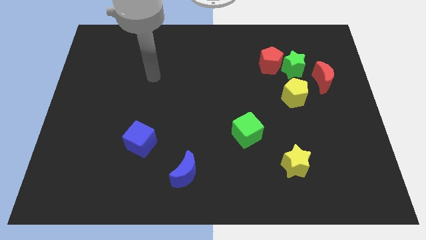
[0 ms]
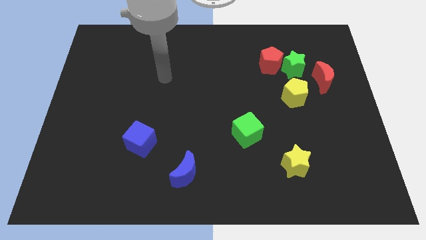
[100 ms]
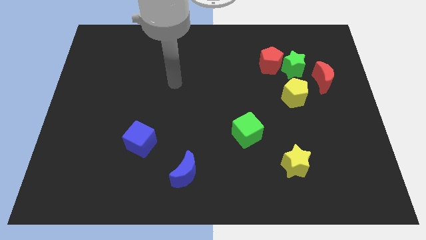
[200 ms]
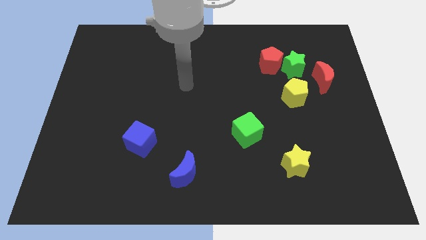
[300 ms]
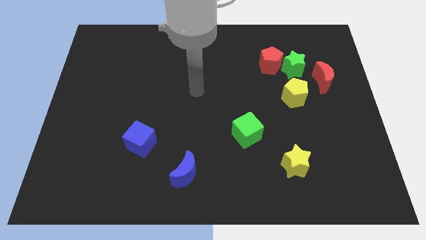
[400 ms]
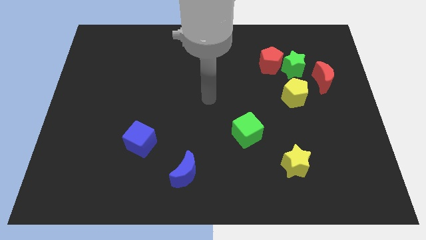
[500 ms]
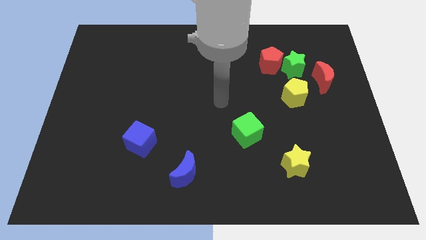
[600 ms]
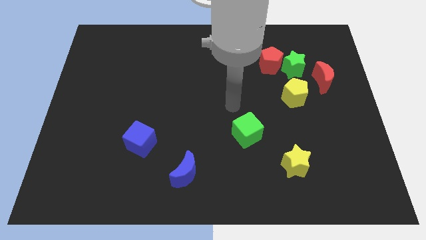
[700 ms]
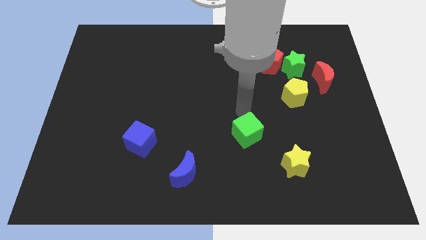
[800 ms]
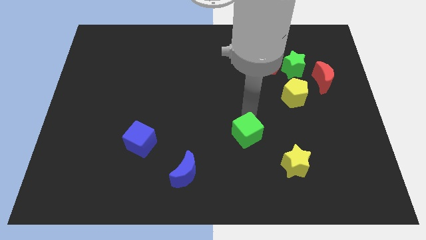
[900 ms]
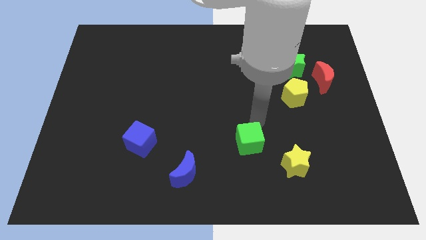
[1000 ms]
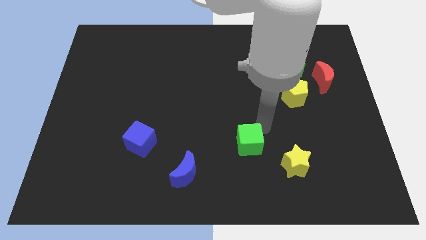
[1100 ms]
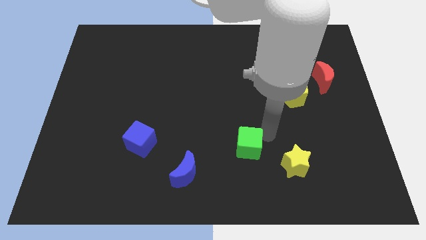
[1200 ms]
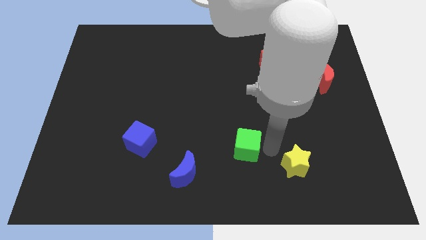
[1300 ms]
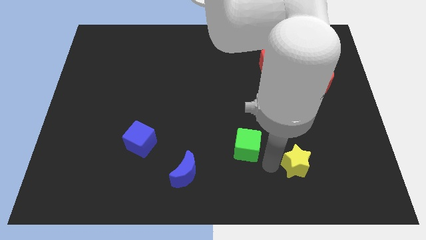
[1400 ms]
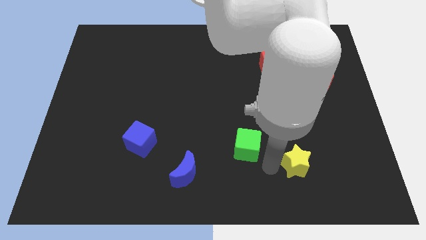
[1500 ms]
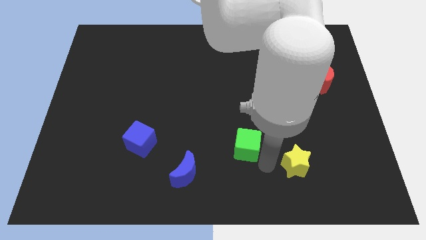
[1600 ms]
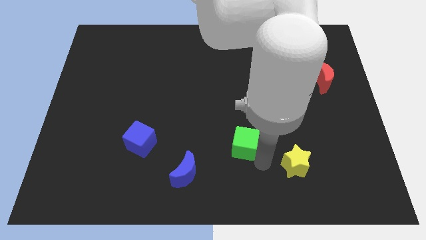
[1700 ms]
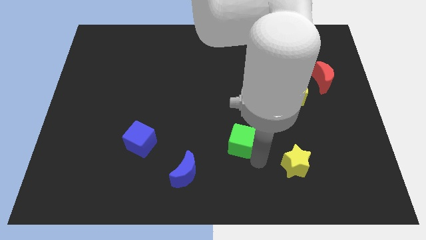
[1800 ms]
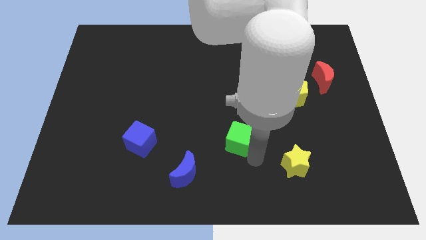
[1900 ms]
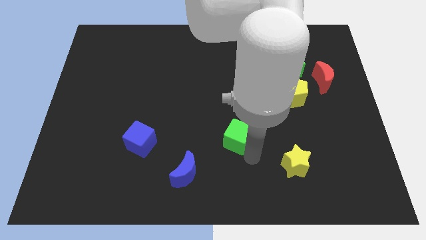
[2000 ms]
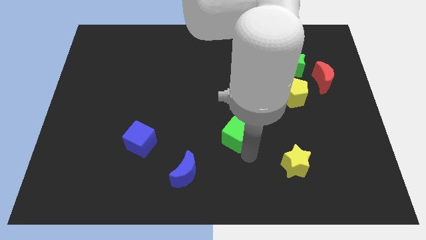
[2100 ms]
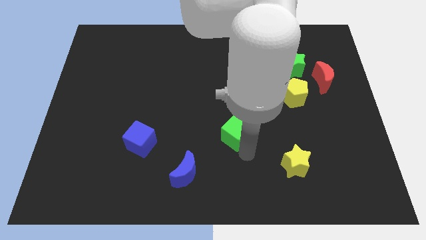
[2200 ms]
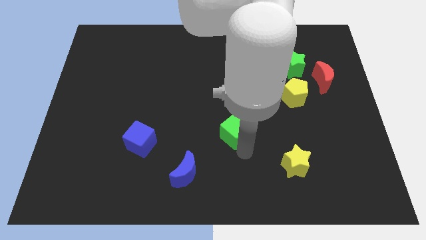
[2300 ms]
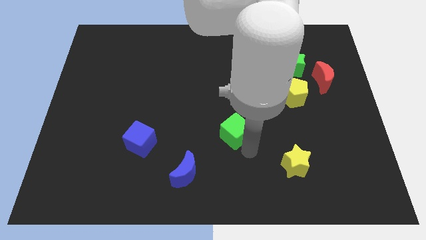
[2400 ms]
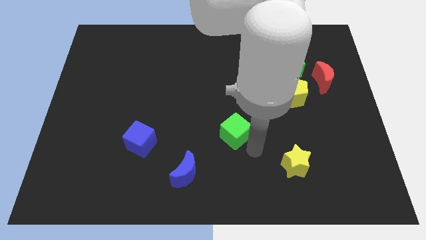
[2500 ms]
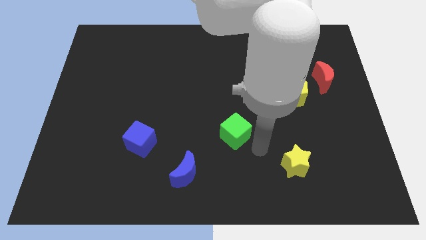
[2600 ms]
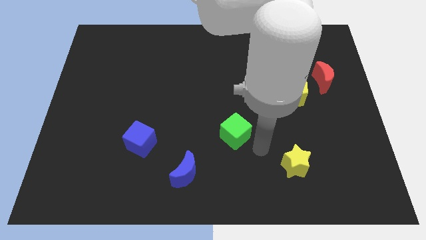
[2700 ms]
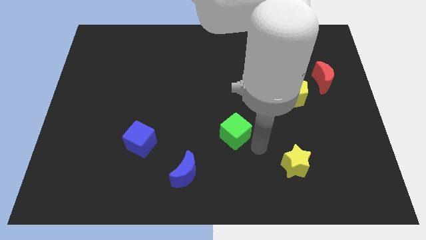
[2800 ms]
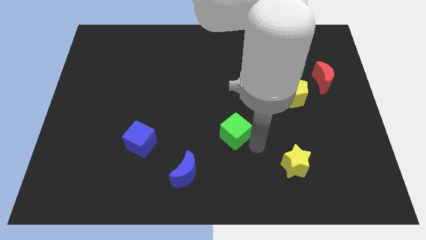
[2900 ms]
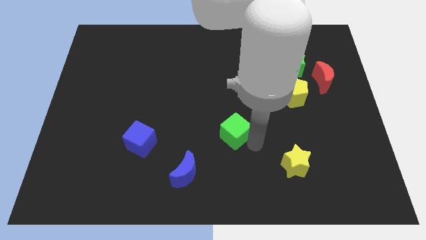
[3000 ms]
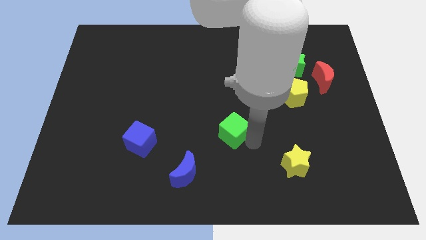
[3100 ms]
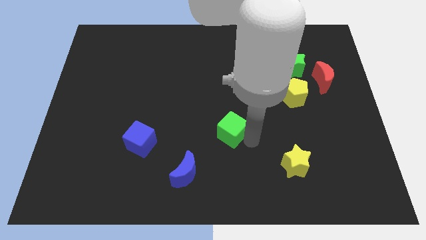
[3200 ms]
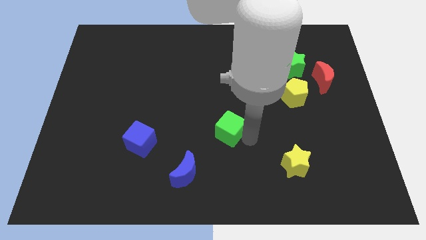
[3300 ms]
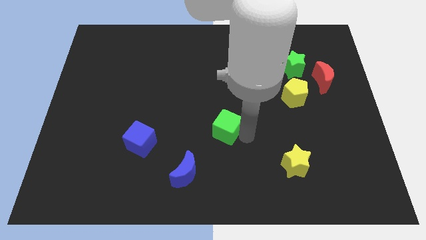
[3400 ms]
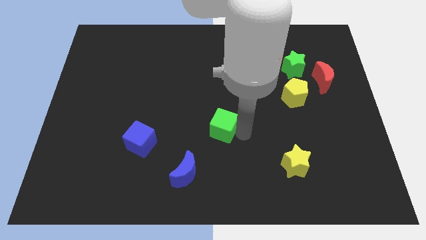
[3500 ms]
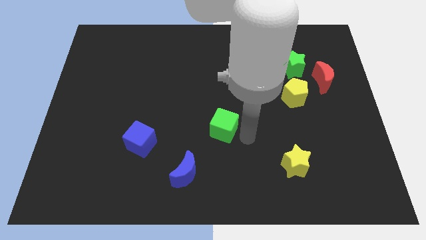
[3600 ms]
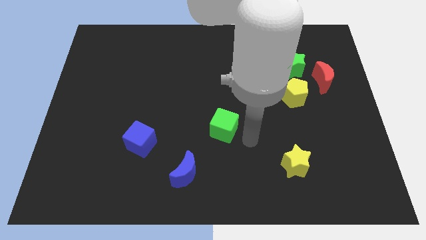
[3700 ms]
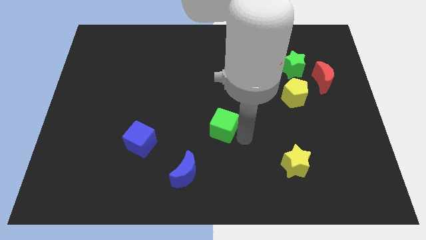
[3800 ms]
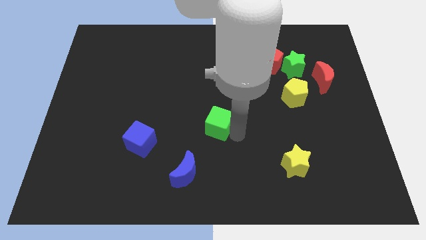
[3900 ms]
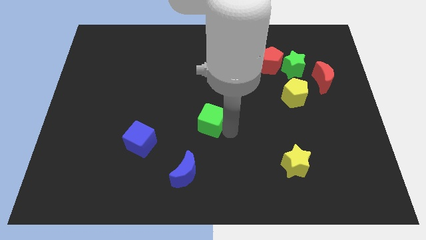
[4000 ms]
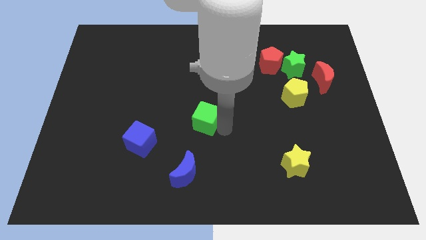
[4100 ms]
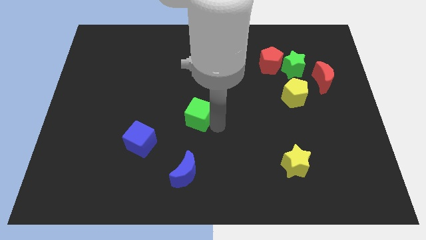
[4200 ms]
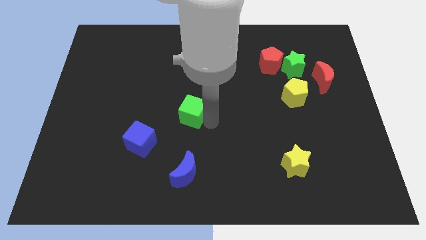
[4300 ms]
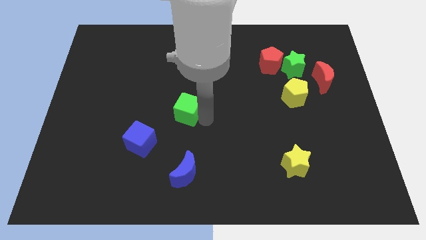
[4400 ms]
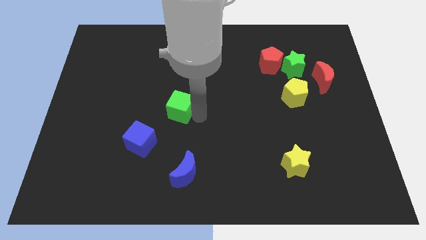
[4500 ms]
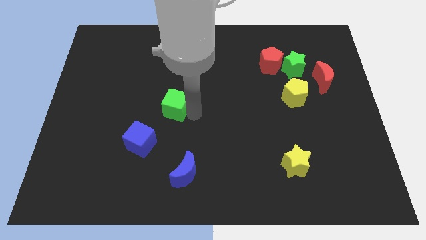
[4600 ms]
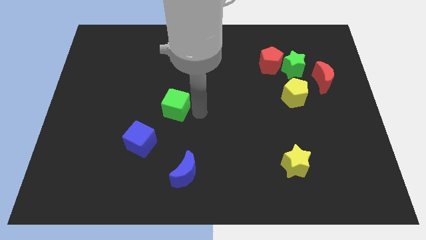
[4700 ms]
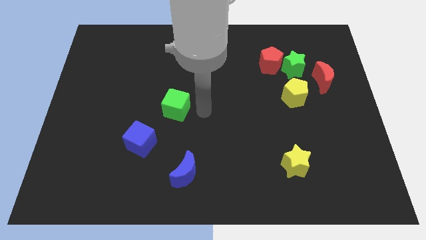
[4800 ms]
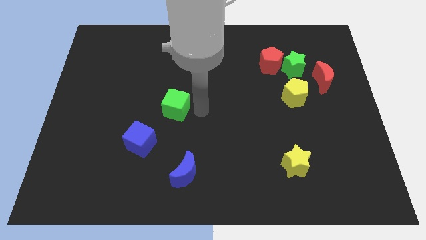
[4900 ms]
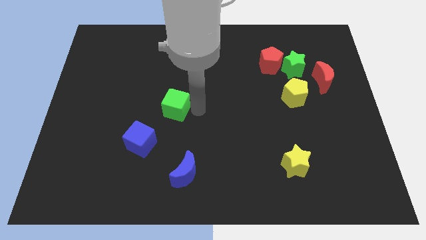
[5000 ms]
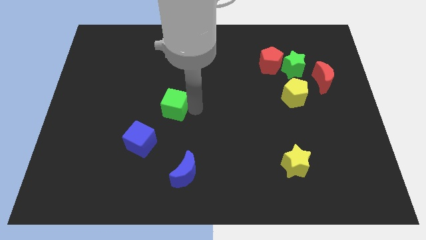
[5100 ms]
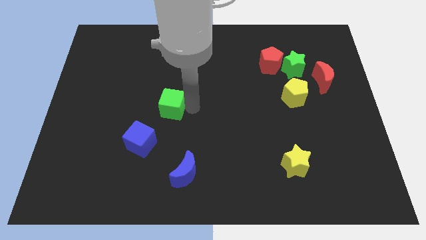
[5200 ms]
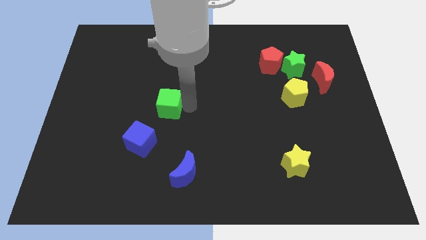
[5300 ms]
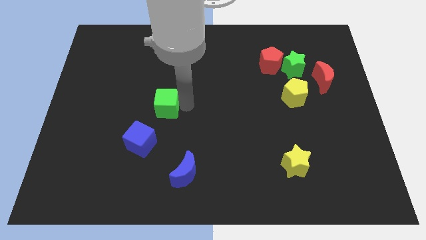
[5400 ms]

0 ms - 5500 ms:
move the green cube to the top side of the blue cube

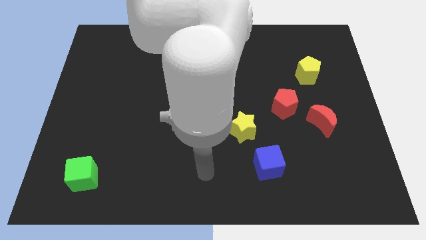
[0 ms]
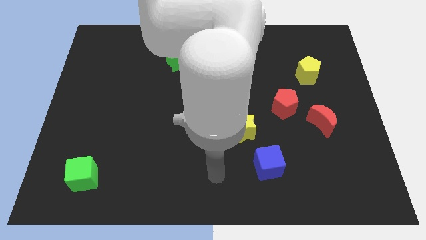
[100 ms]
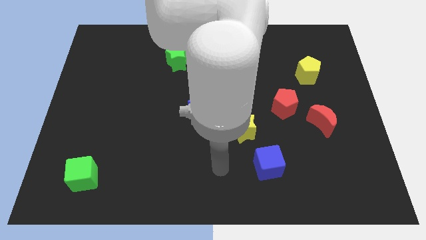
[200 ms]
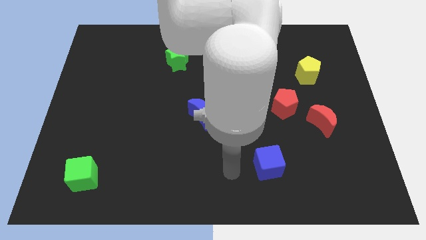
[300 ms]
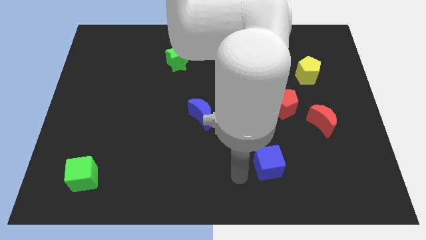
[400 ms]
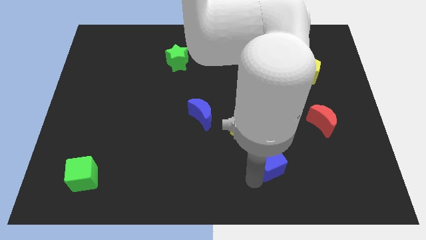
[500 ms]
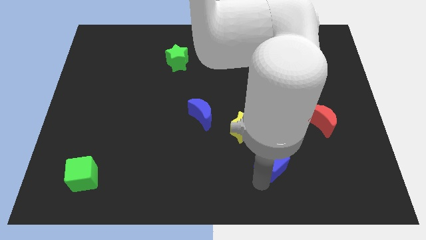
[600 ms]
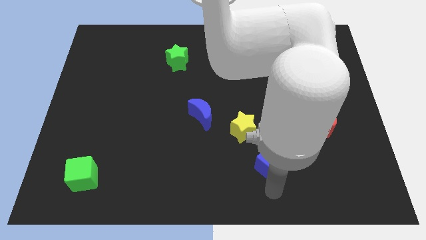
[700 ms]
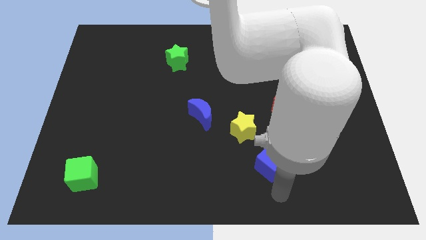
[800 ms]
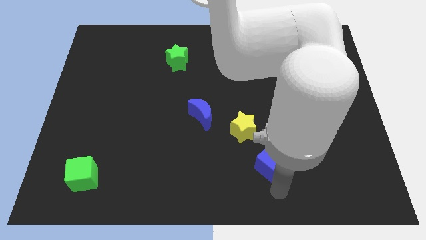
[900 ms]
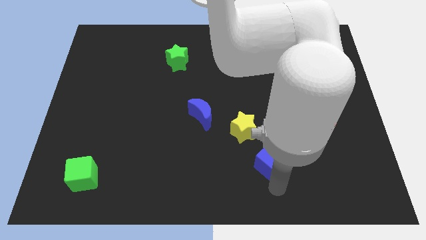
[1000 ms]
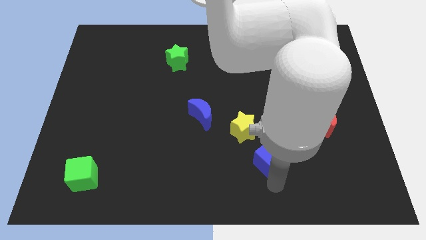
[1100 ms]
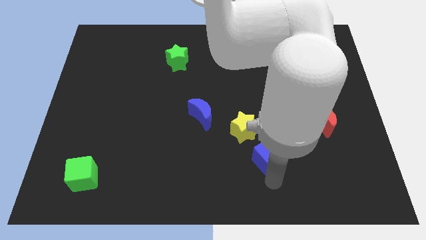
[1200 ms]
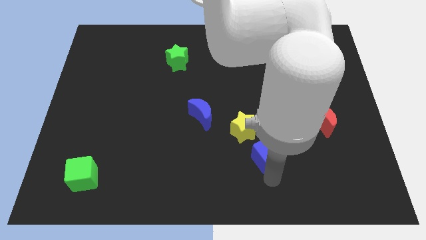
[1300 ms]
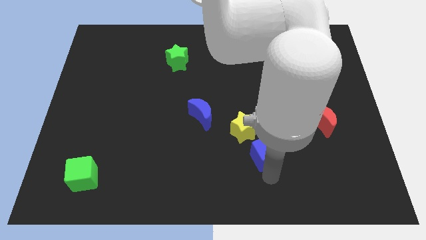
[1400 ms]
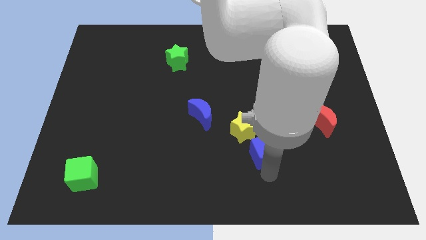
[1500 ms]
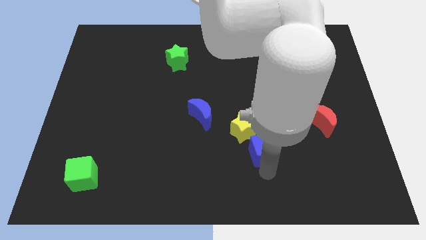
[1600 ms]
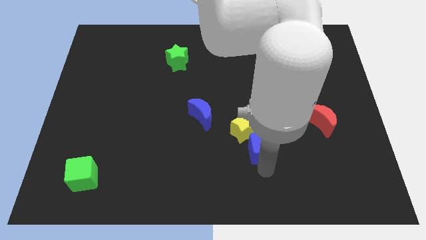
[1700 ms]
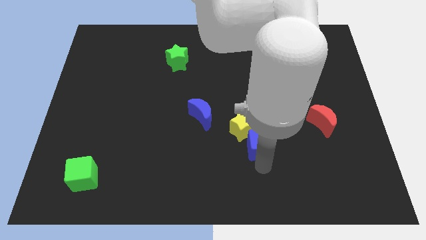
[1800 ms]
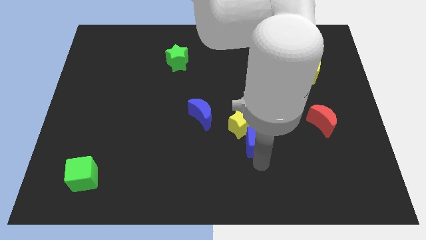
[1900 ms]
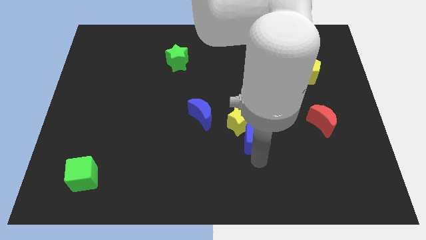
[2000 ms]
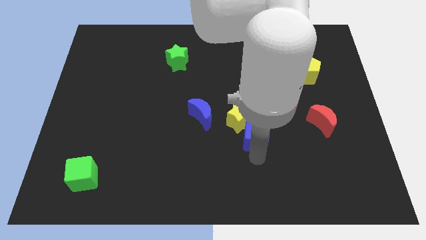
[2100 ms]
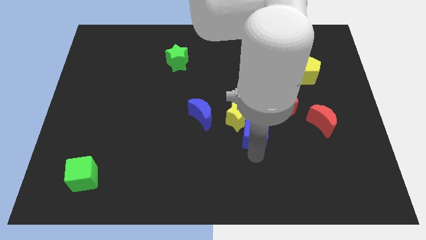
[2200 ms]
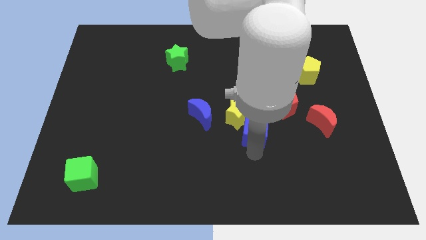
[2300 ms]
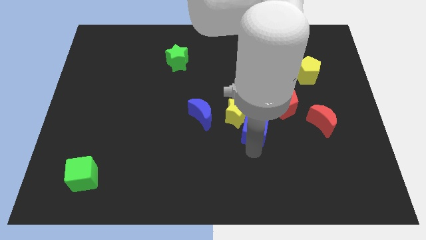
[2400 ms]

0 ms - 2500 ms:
push the blue cube to the right side of the blue moon
